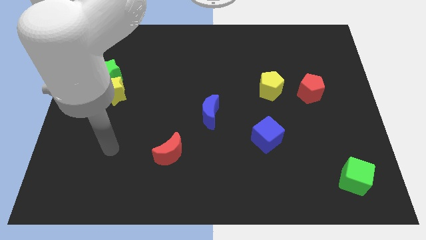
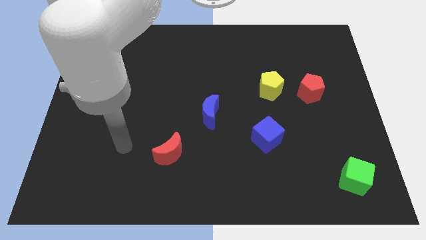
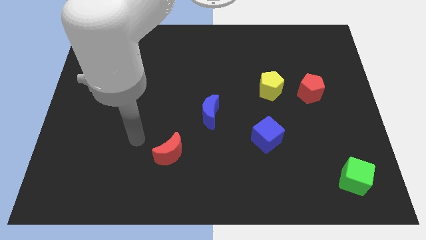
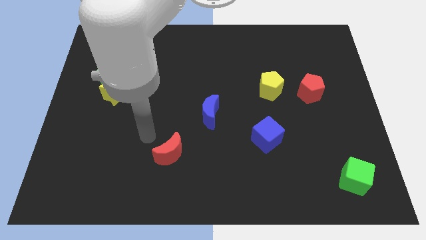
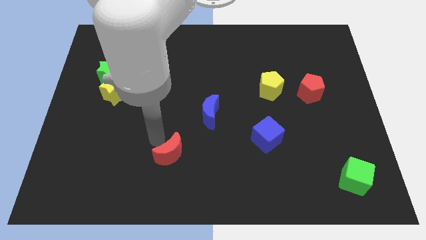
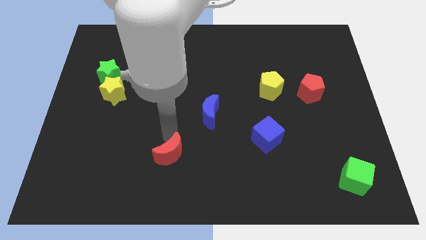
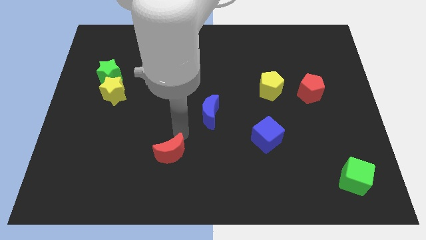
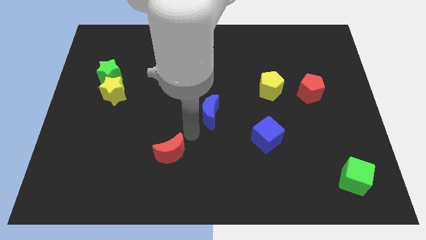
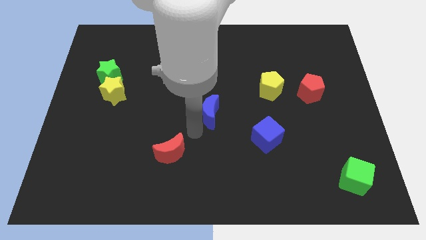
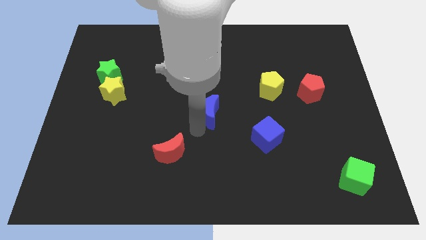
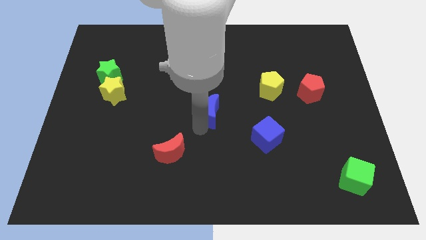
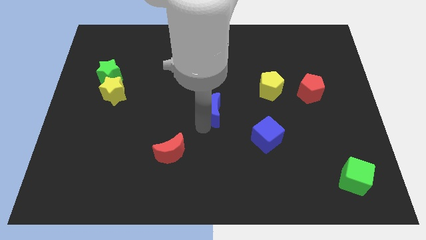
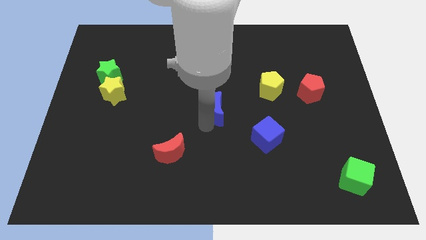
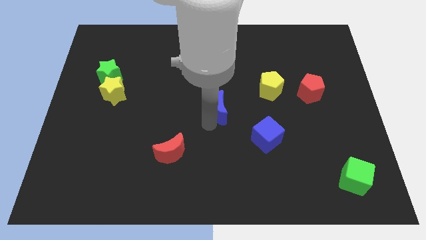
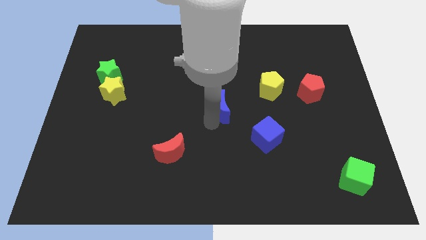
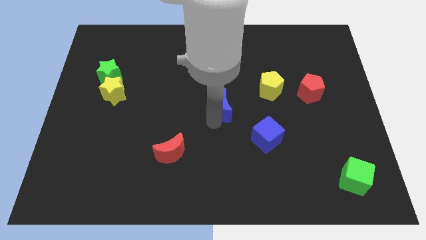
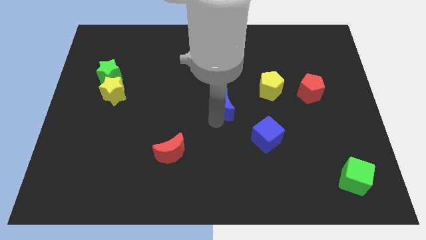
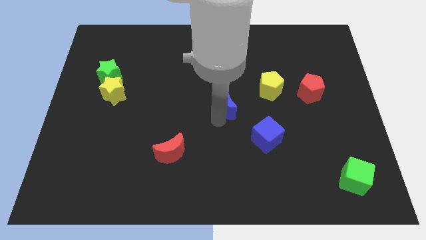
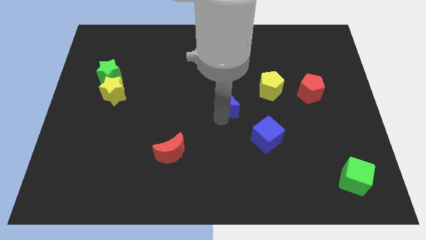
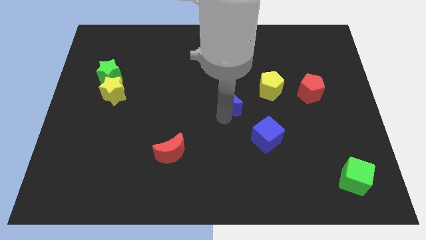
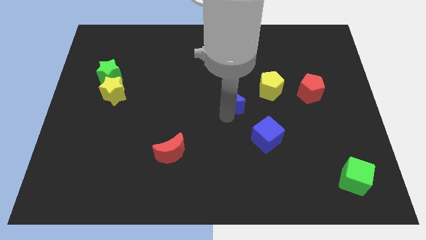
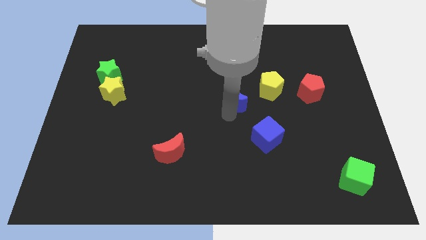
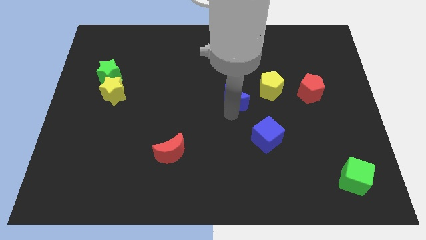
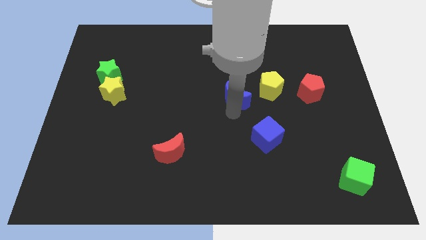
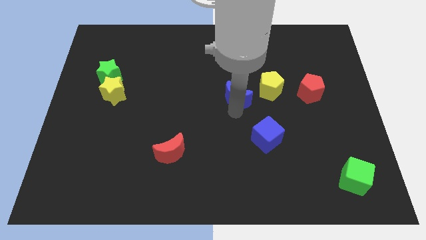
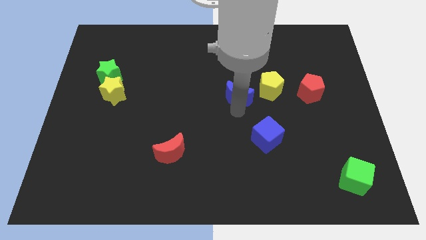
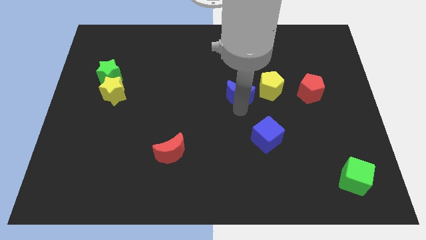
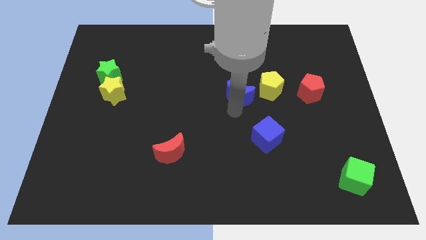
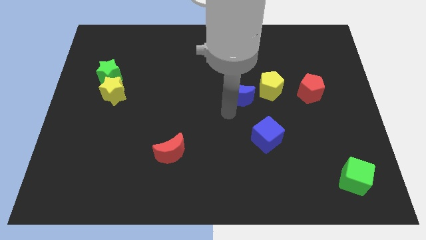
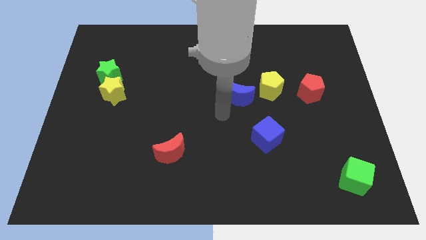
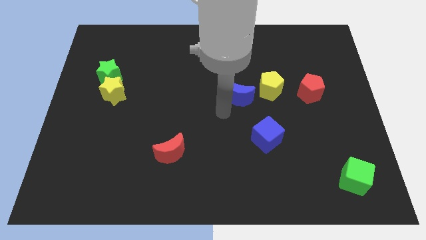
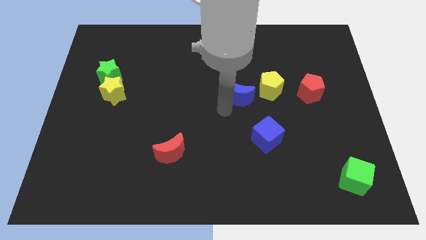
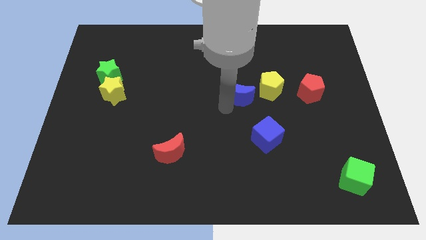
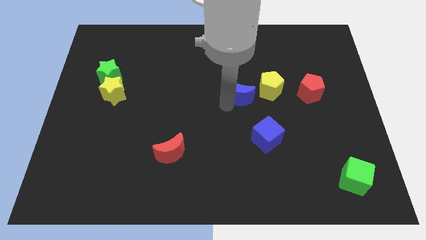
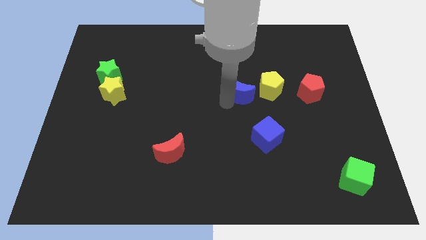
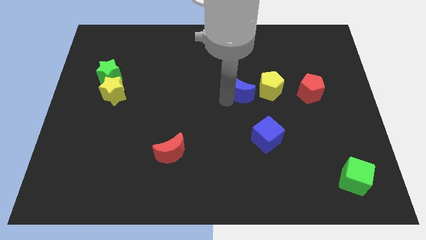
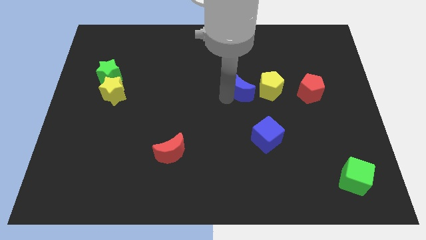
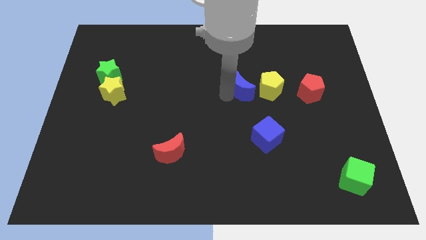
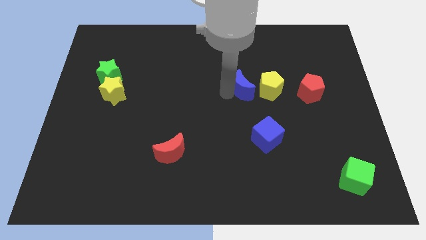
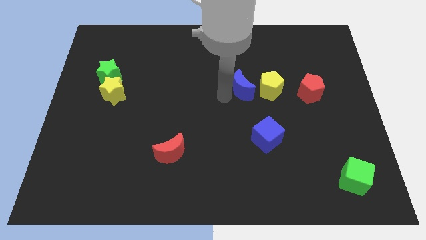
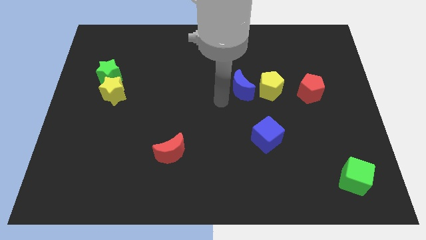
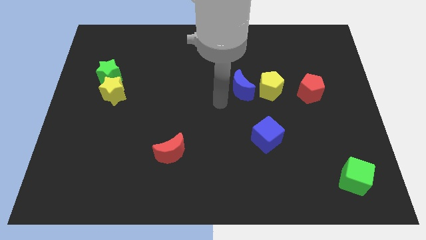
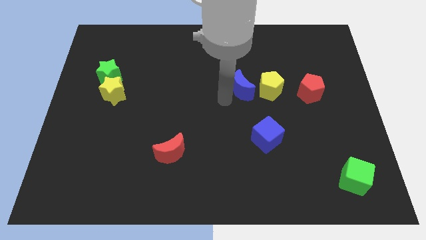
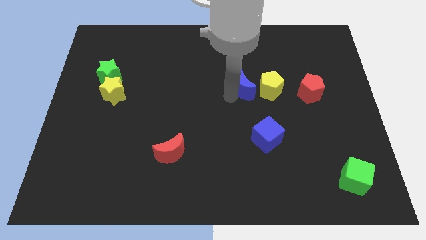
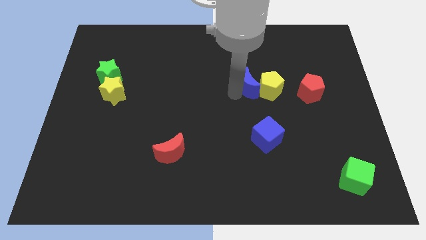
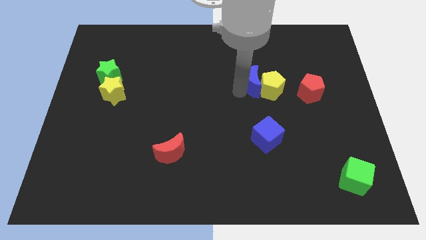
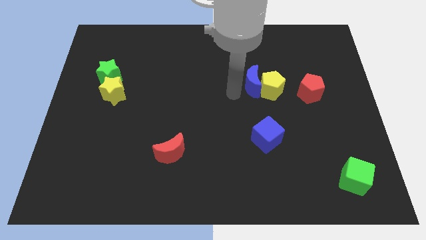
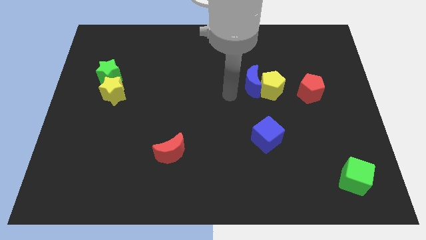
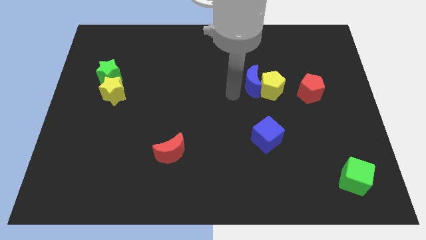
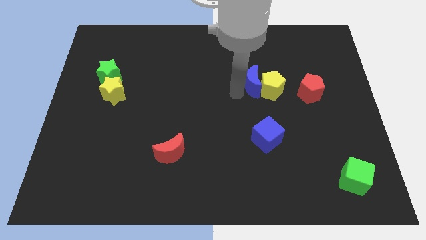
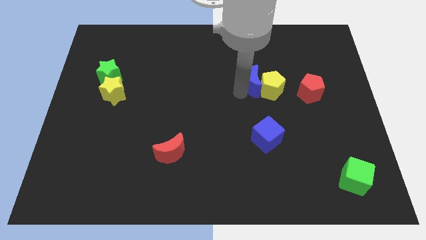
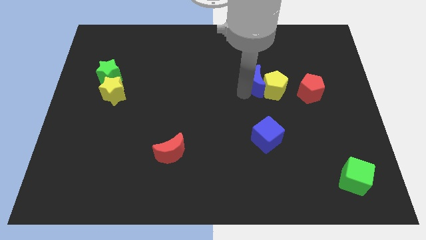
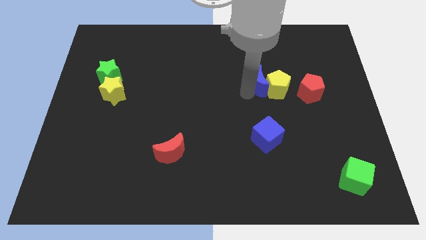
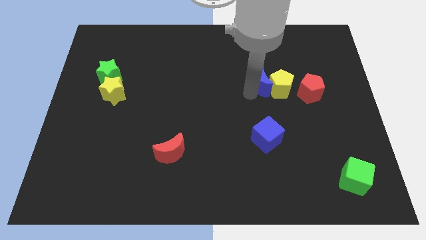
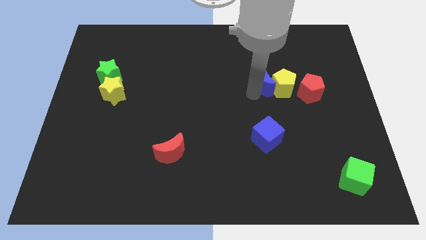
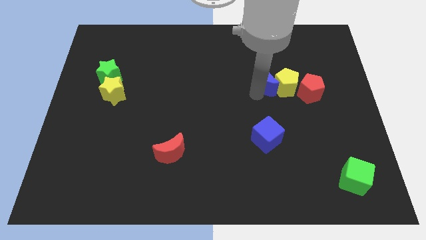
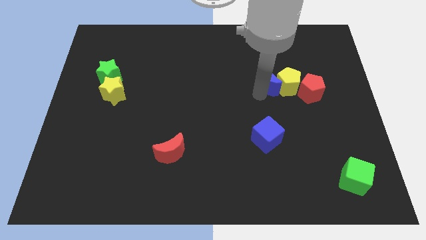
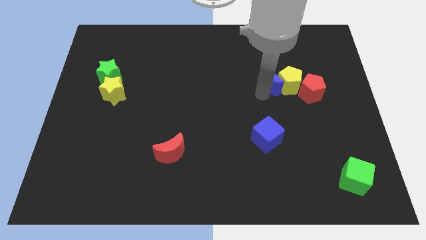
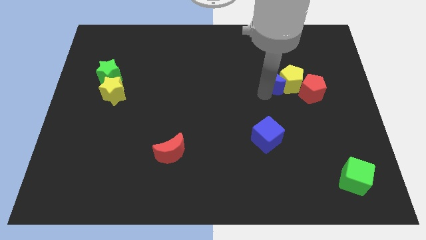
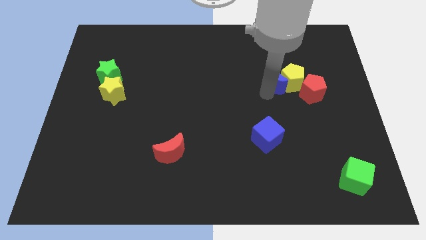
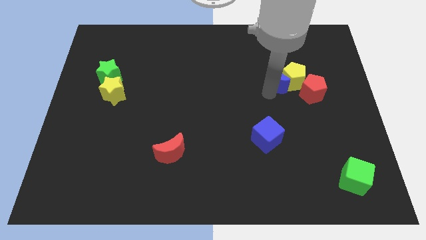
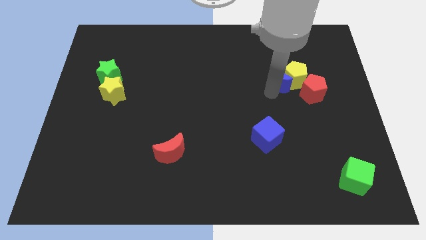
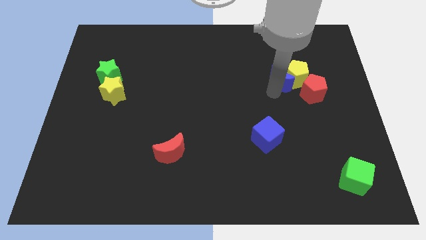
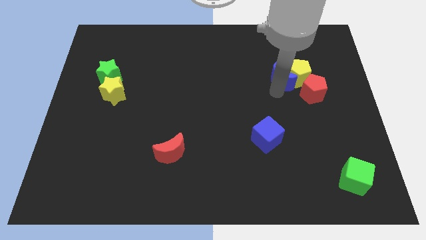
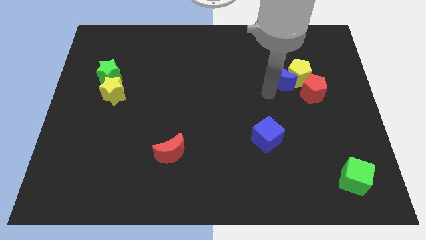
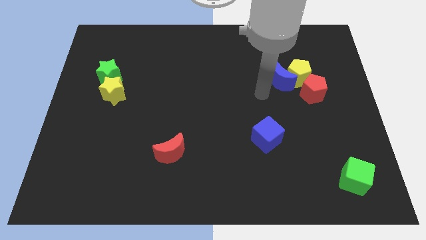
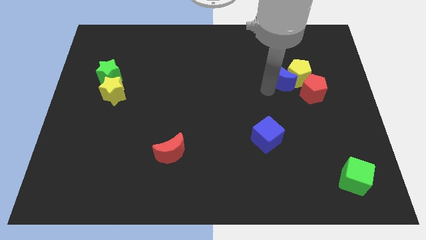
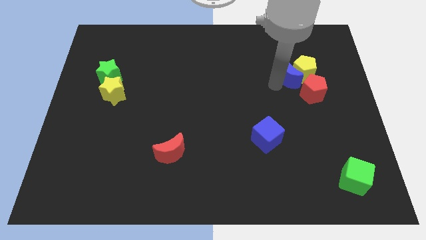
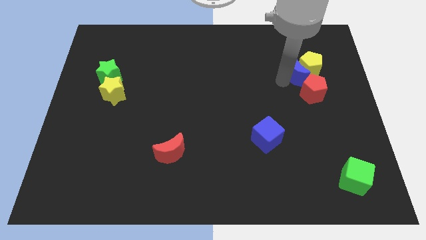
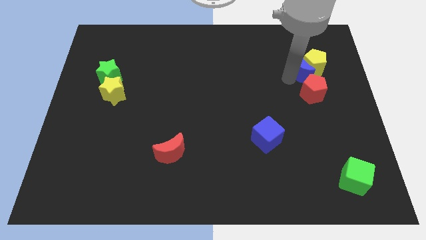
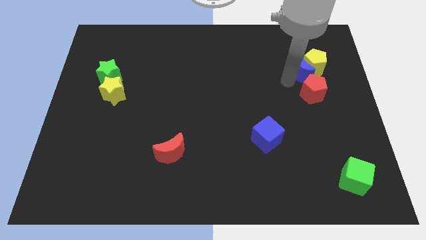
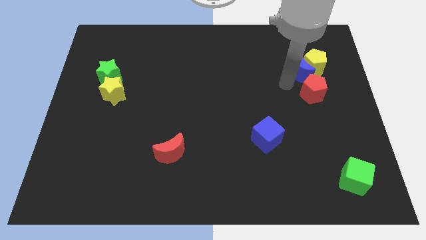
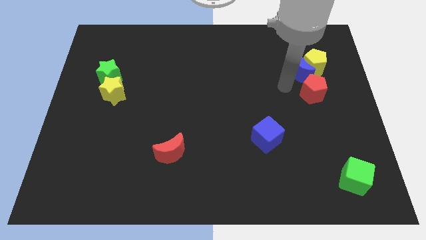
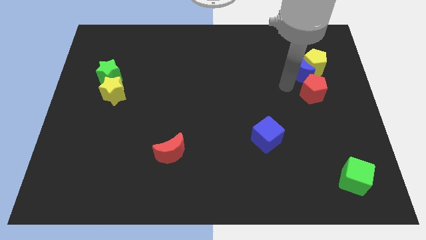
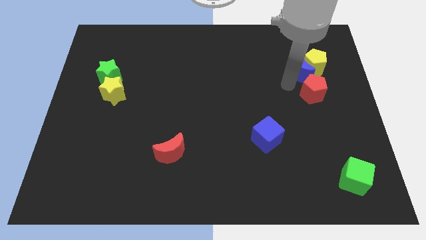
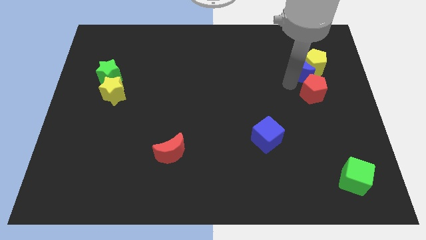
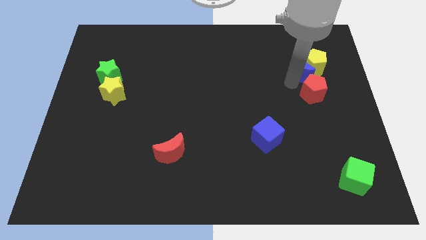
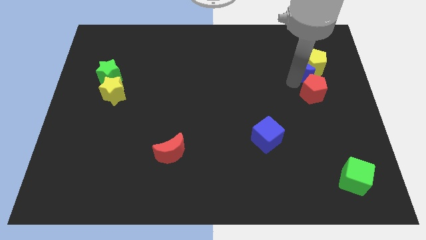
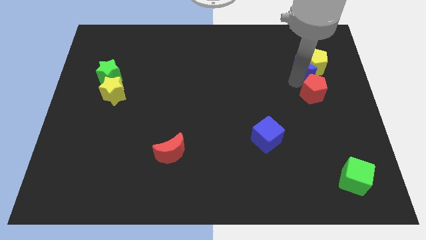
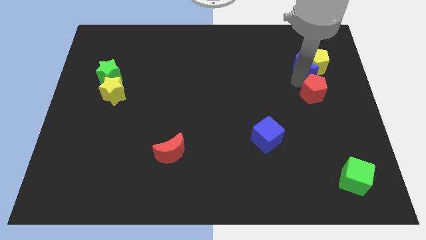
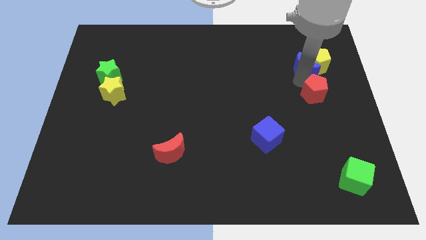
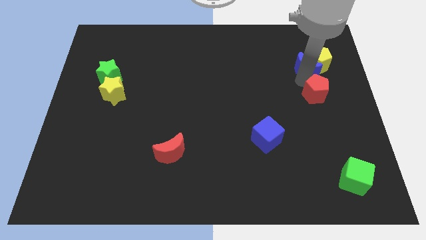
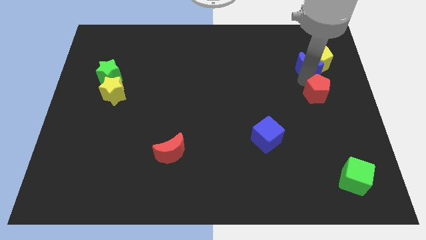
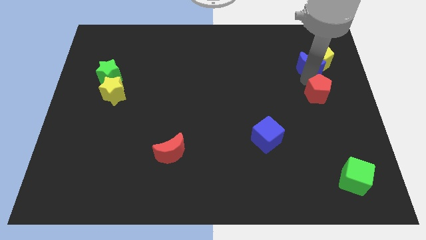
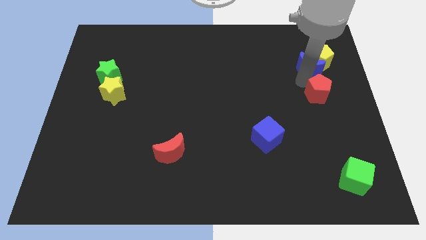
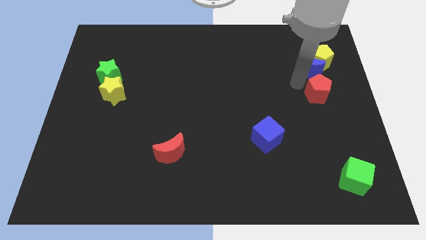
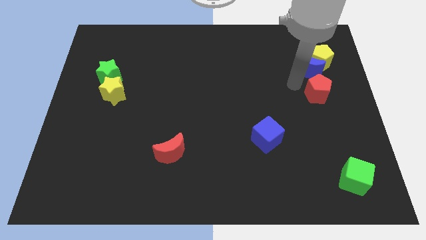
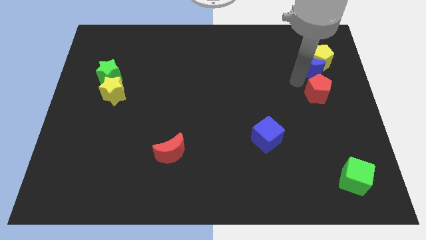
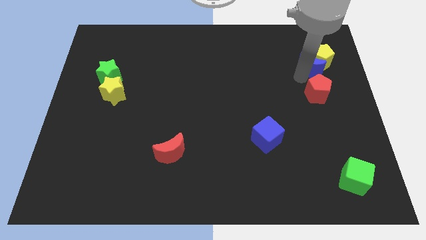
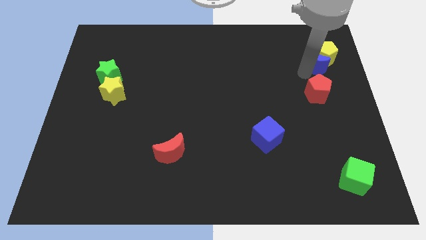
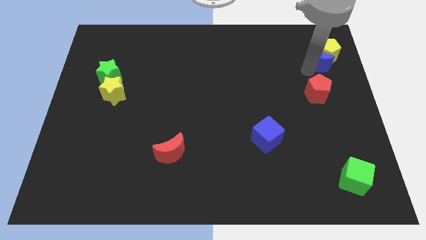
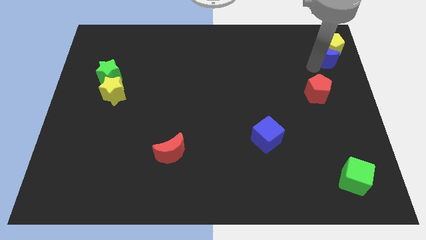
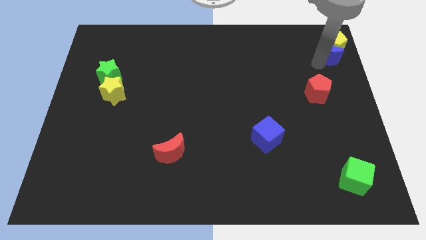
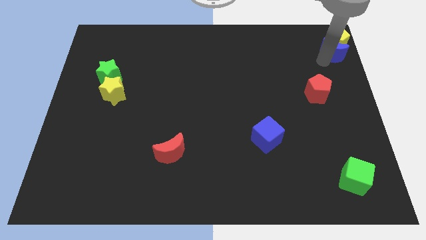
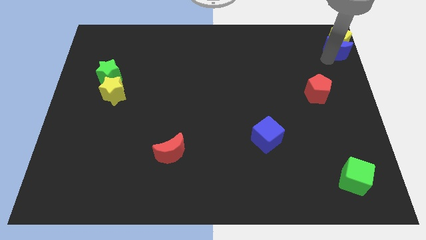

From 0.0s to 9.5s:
push the blue moon to the upper right corner
